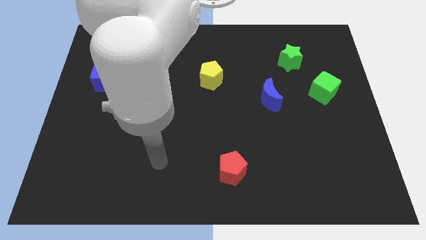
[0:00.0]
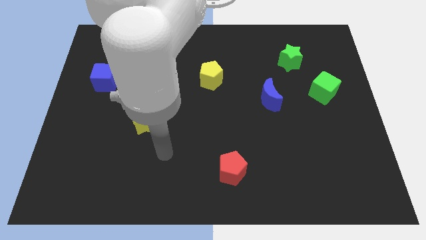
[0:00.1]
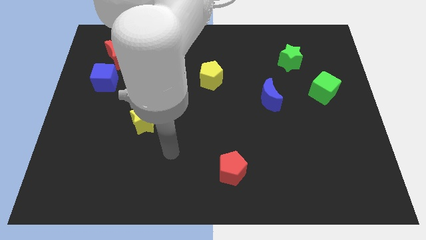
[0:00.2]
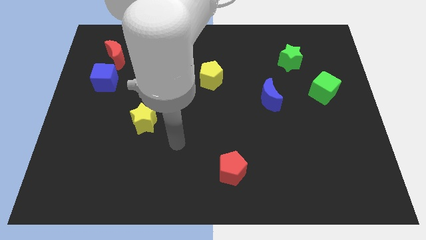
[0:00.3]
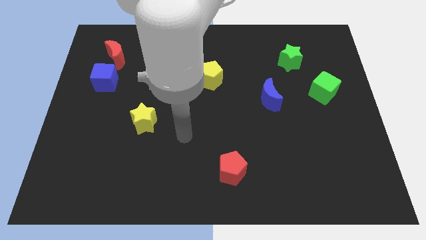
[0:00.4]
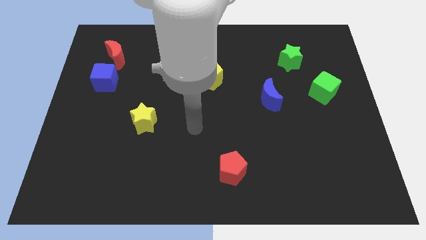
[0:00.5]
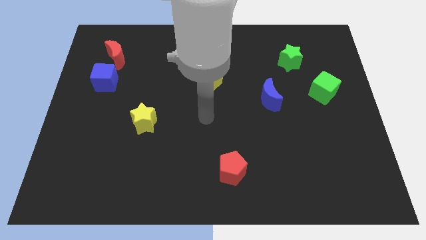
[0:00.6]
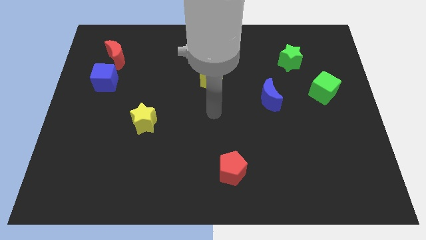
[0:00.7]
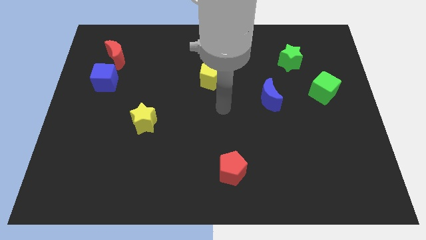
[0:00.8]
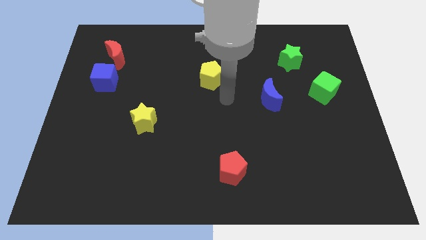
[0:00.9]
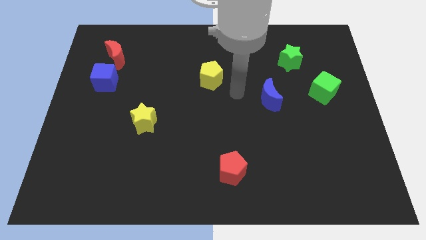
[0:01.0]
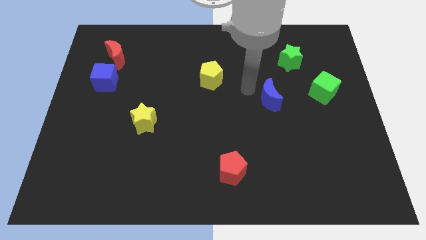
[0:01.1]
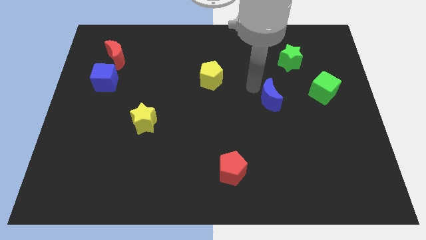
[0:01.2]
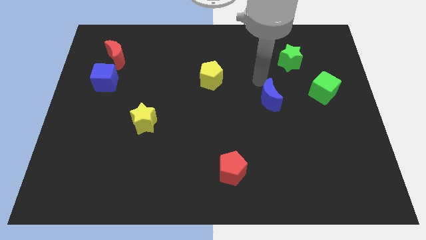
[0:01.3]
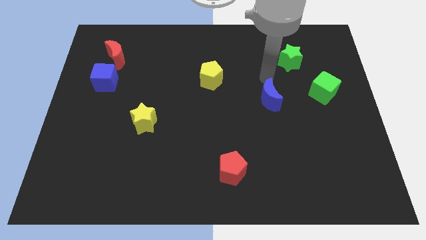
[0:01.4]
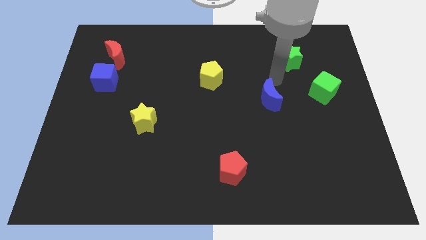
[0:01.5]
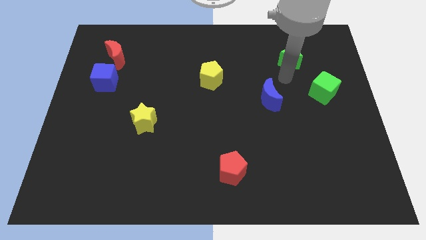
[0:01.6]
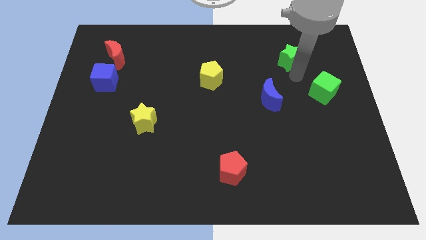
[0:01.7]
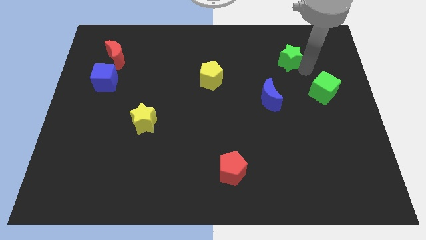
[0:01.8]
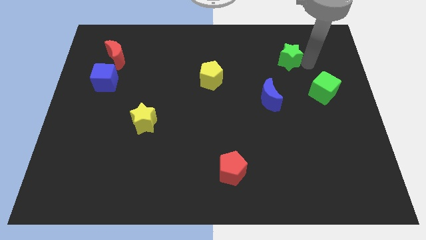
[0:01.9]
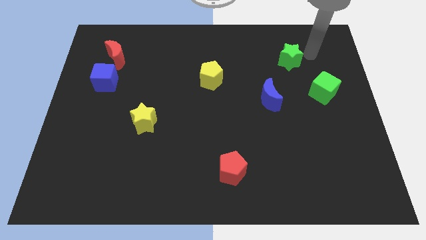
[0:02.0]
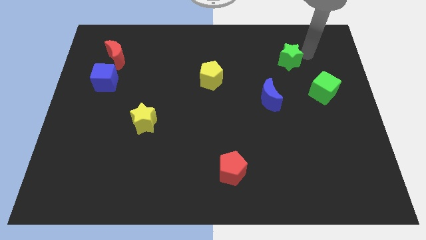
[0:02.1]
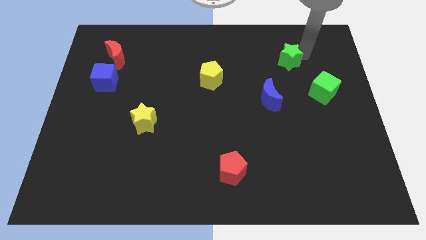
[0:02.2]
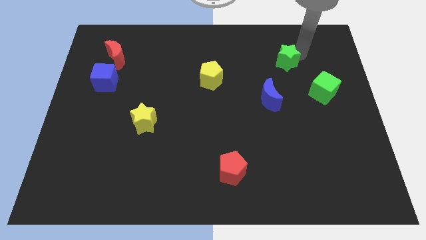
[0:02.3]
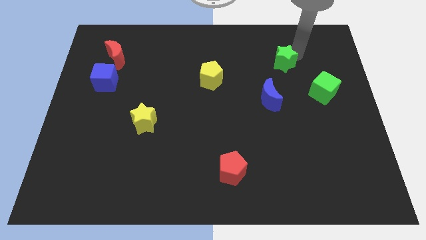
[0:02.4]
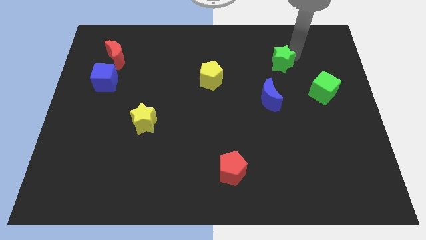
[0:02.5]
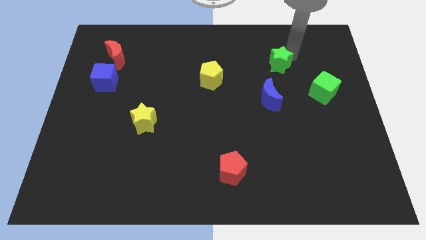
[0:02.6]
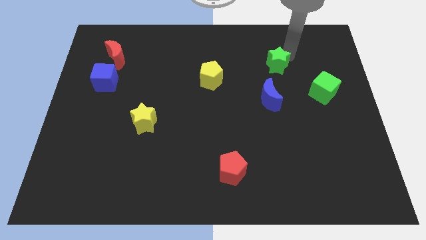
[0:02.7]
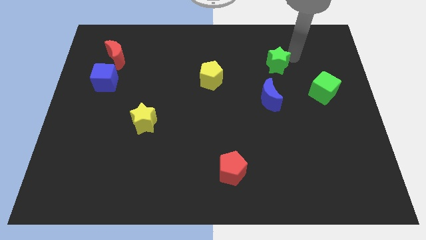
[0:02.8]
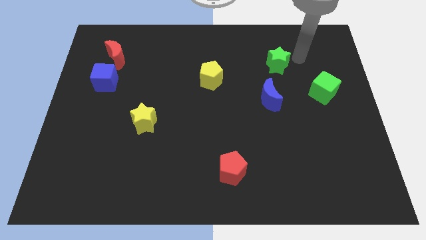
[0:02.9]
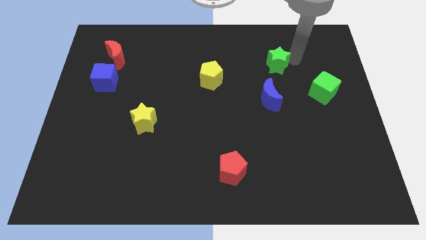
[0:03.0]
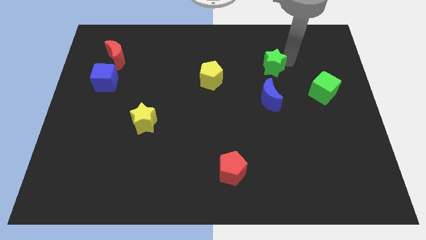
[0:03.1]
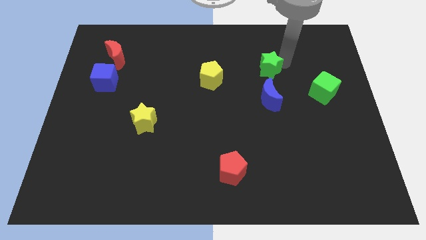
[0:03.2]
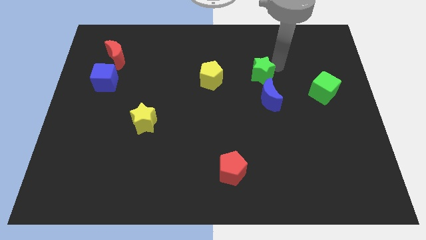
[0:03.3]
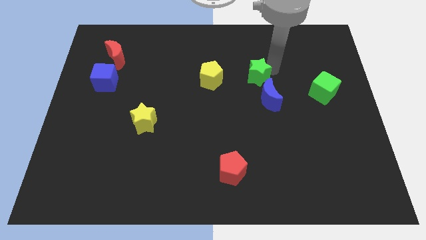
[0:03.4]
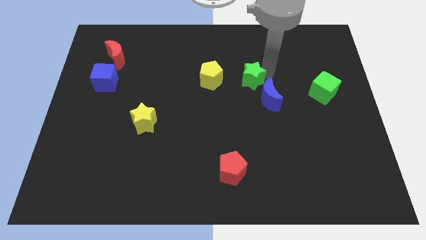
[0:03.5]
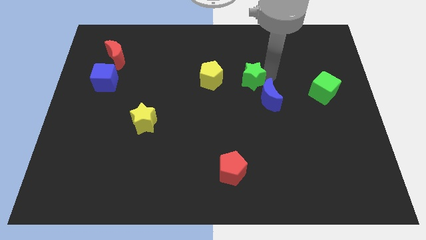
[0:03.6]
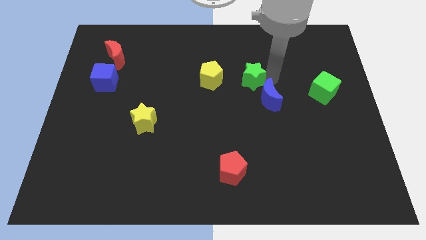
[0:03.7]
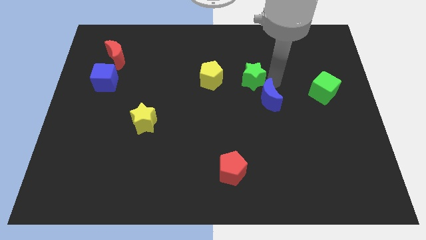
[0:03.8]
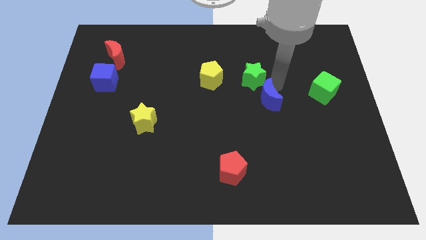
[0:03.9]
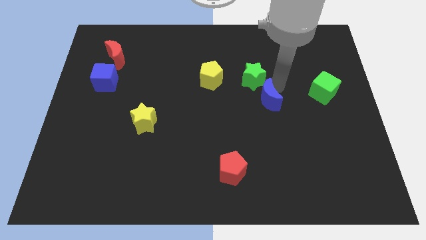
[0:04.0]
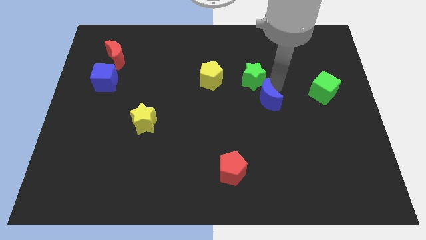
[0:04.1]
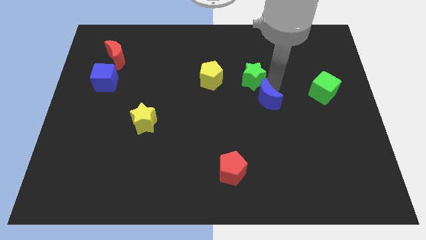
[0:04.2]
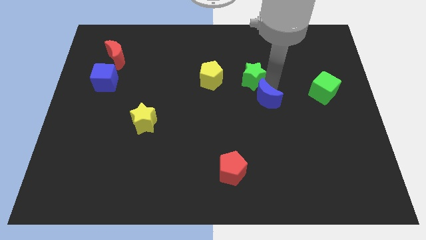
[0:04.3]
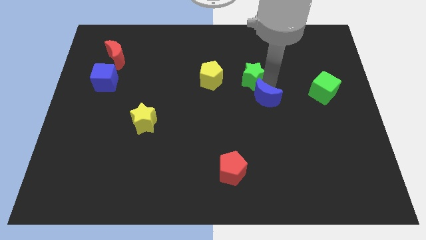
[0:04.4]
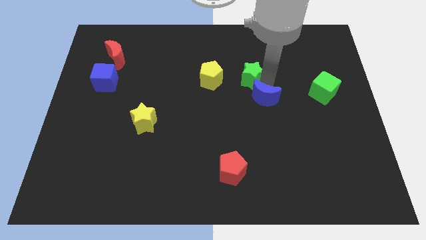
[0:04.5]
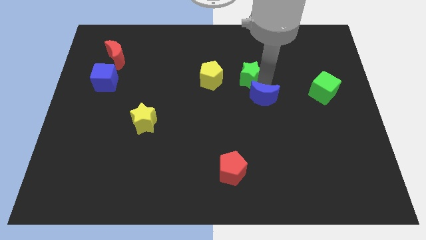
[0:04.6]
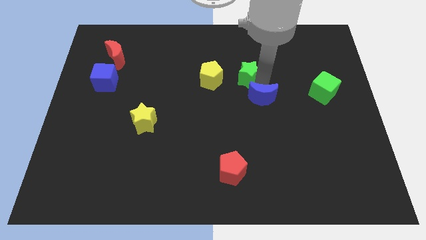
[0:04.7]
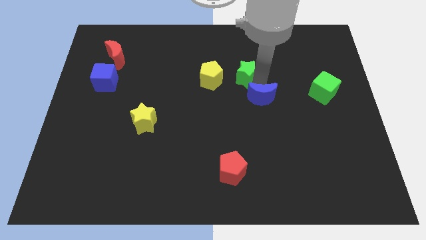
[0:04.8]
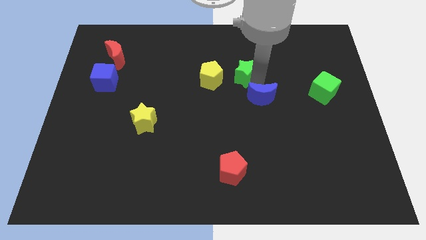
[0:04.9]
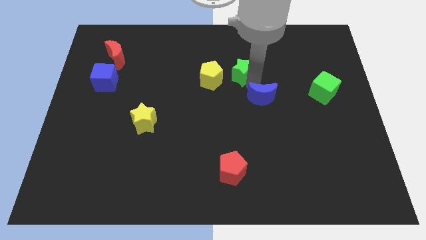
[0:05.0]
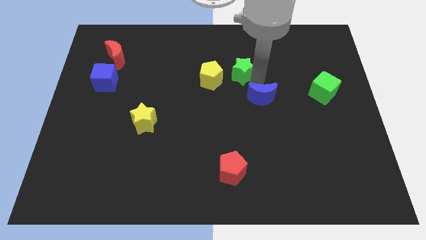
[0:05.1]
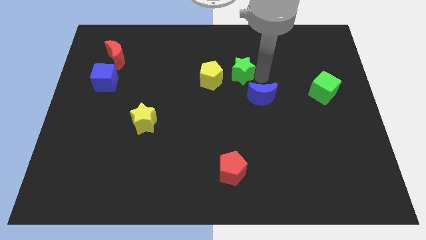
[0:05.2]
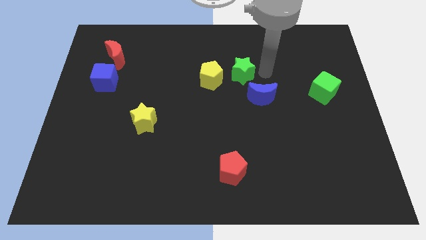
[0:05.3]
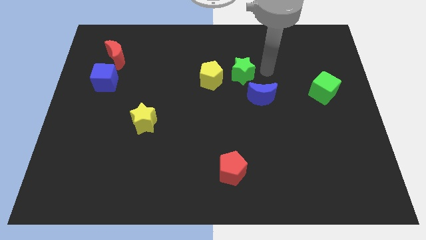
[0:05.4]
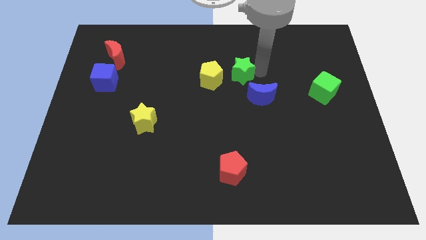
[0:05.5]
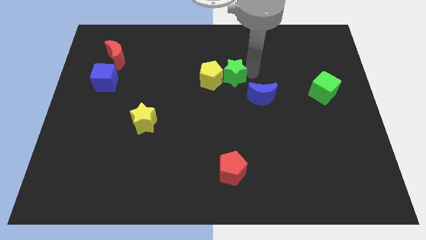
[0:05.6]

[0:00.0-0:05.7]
push the green star next to the yellow pentagon

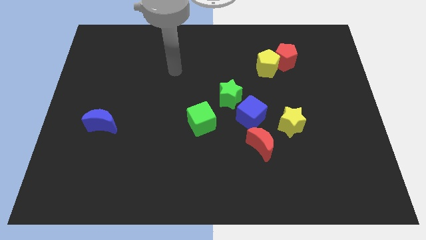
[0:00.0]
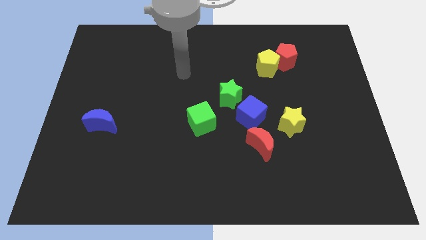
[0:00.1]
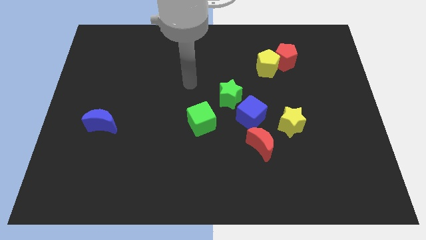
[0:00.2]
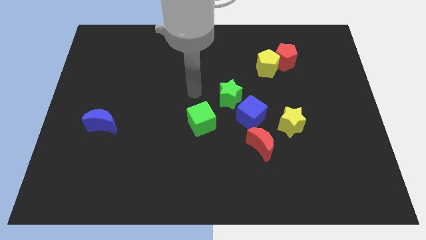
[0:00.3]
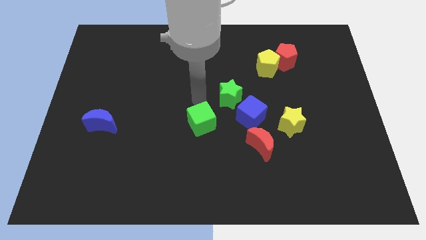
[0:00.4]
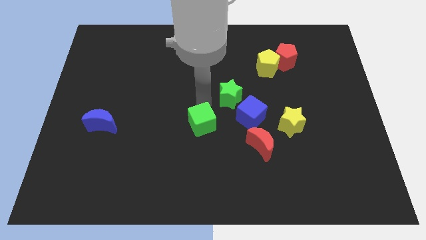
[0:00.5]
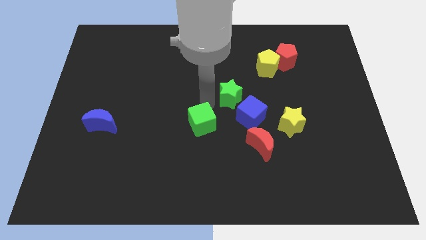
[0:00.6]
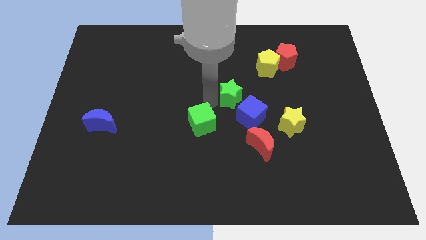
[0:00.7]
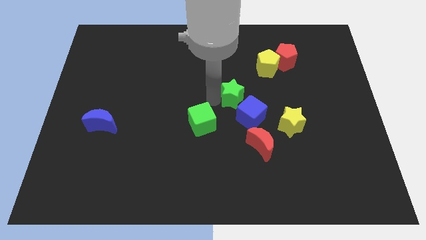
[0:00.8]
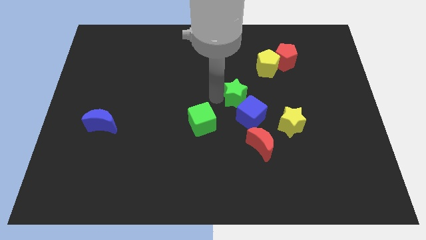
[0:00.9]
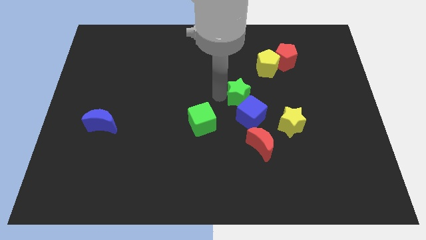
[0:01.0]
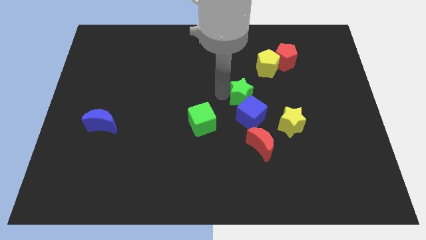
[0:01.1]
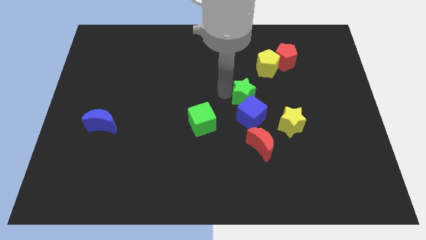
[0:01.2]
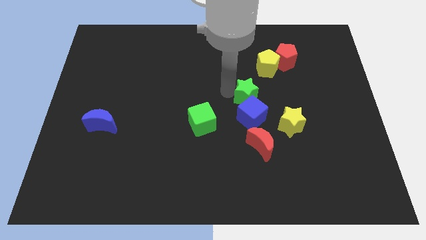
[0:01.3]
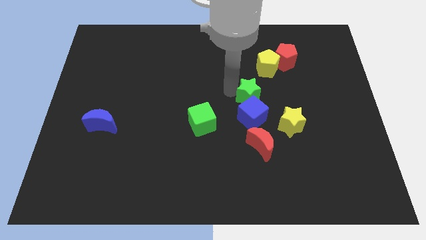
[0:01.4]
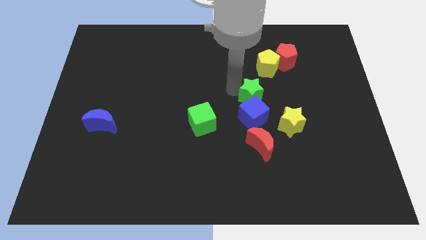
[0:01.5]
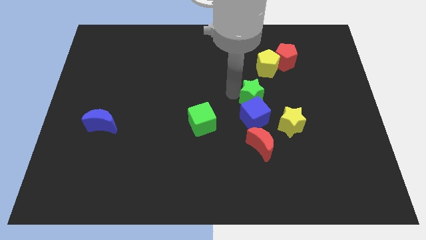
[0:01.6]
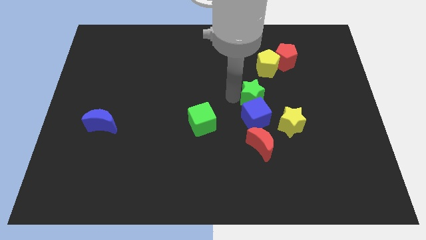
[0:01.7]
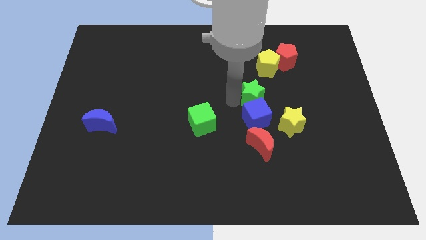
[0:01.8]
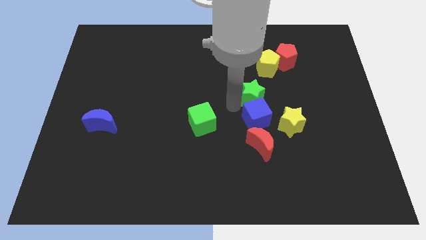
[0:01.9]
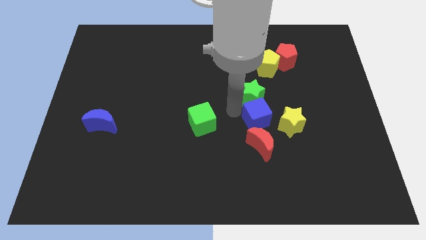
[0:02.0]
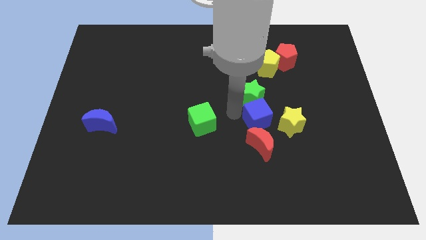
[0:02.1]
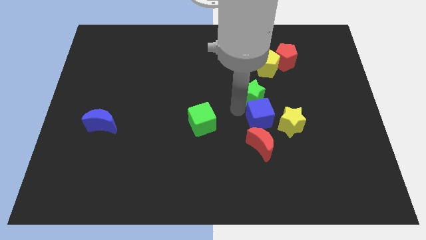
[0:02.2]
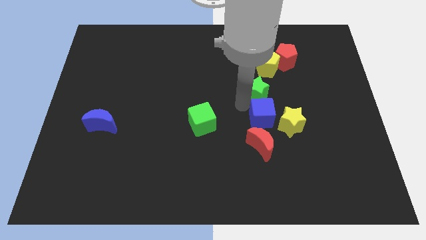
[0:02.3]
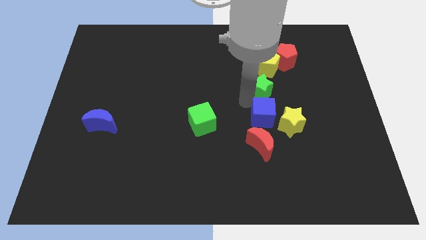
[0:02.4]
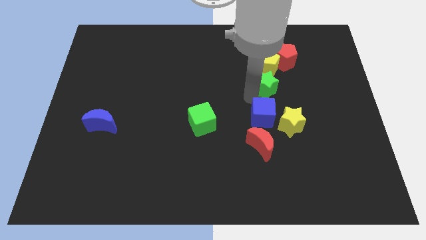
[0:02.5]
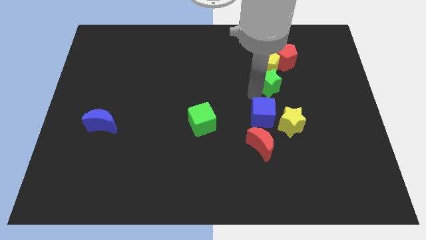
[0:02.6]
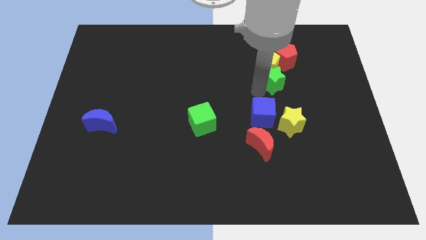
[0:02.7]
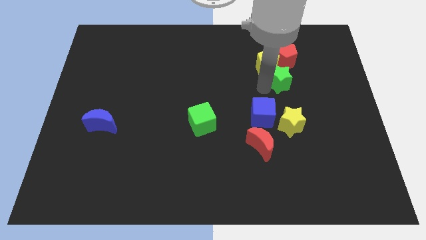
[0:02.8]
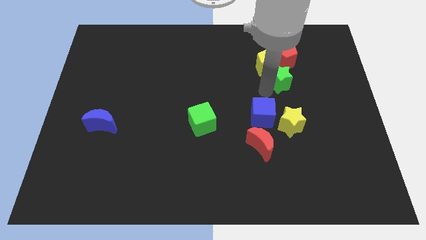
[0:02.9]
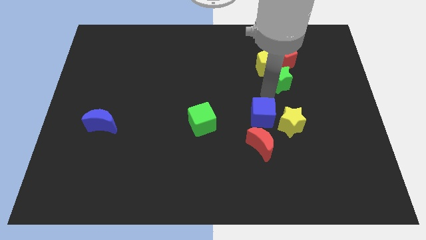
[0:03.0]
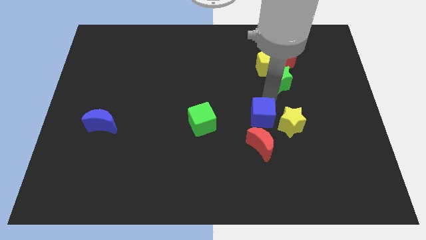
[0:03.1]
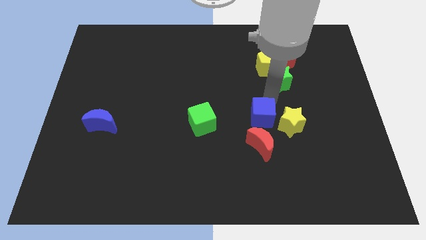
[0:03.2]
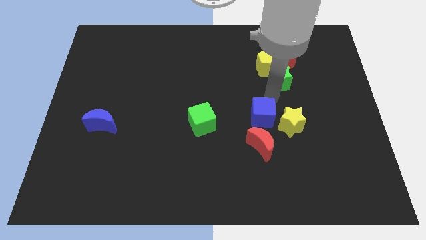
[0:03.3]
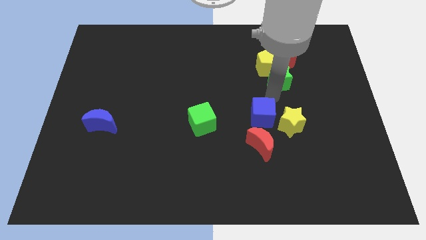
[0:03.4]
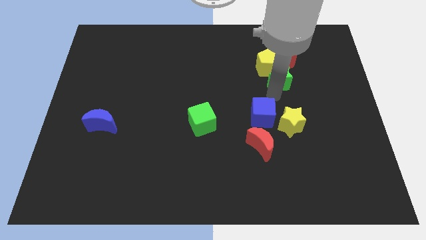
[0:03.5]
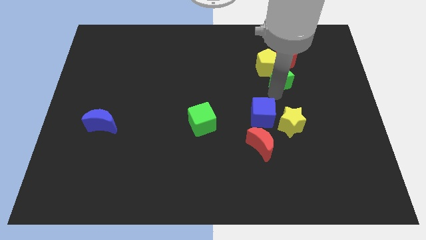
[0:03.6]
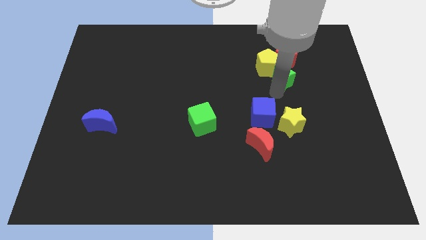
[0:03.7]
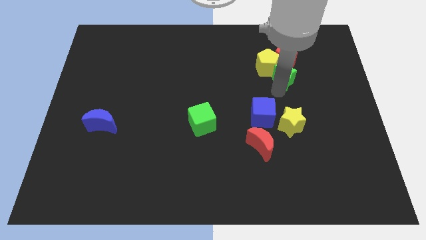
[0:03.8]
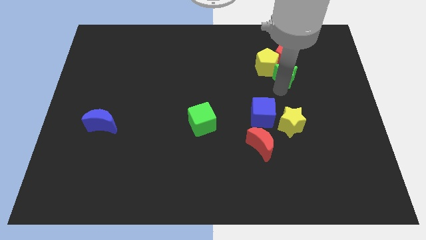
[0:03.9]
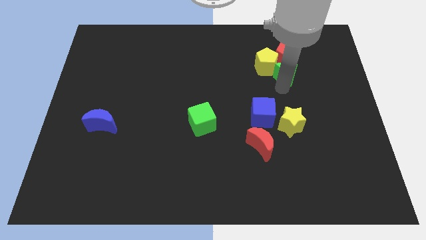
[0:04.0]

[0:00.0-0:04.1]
slide the green star towards the red pentagon
